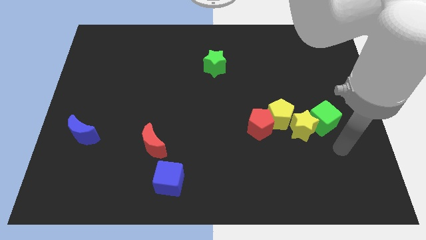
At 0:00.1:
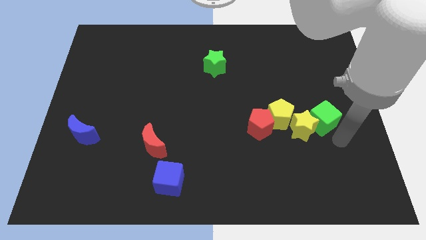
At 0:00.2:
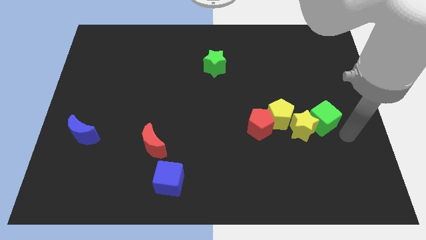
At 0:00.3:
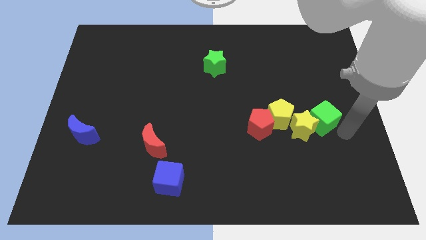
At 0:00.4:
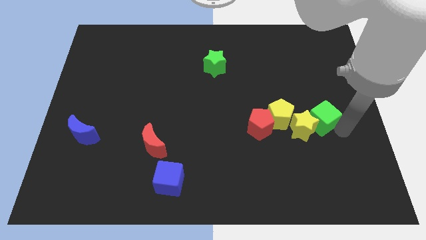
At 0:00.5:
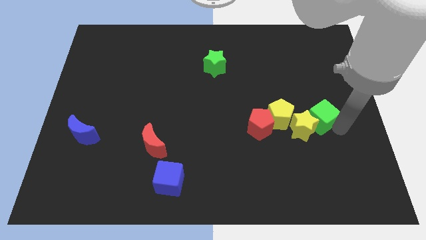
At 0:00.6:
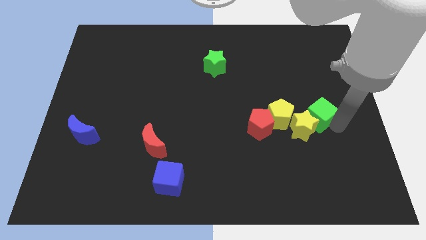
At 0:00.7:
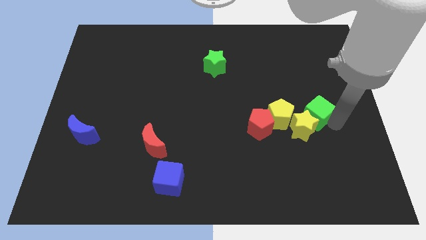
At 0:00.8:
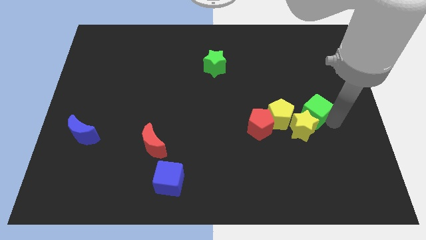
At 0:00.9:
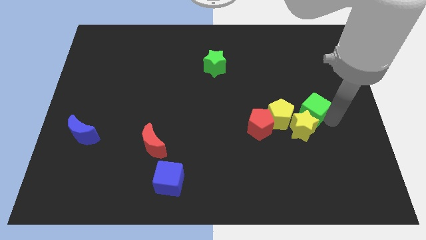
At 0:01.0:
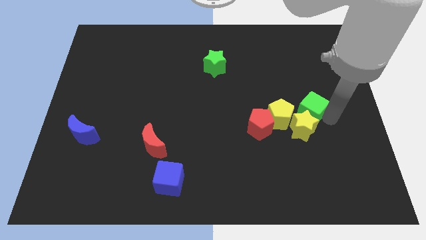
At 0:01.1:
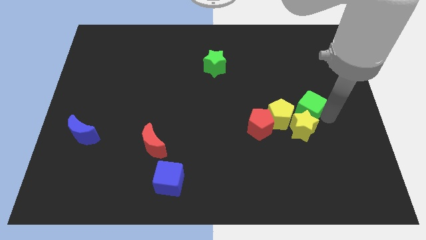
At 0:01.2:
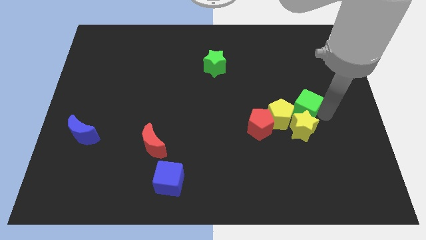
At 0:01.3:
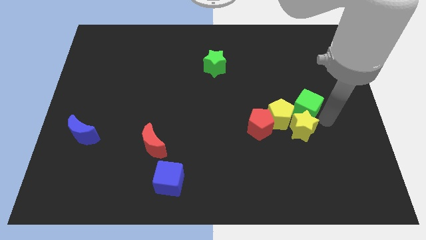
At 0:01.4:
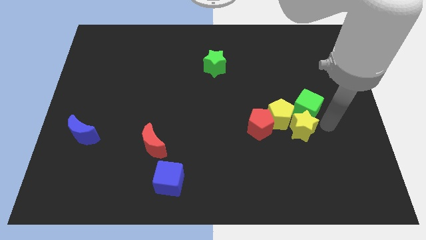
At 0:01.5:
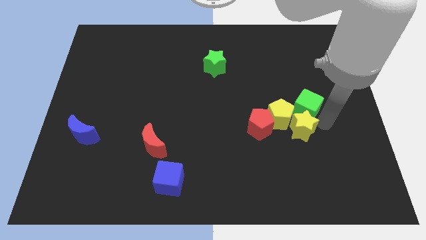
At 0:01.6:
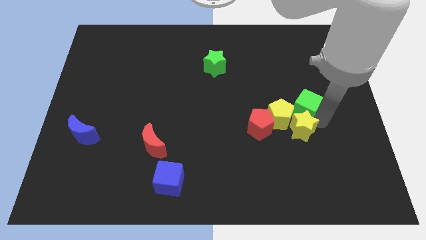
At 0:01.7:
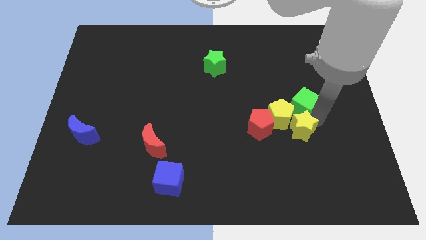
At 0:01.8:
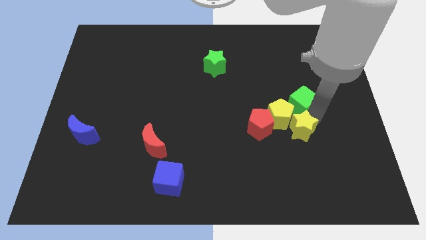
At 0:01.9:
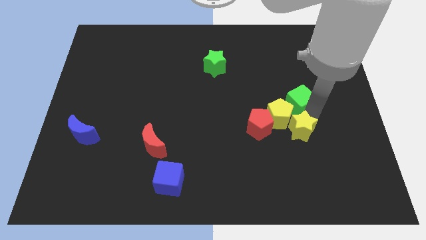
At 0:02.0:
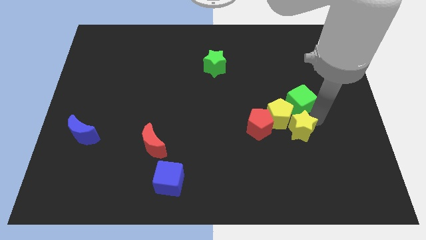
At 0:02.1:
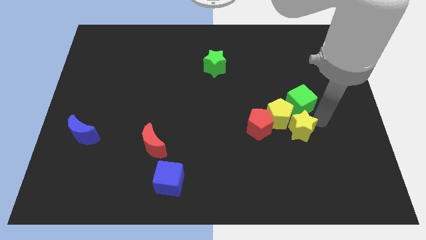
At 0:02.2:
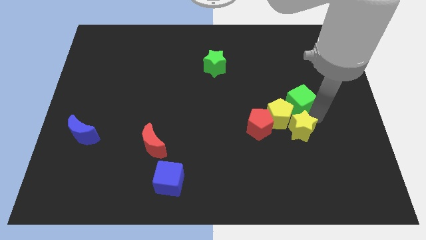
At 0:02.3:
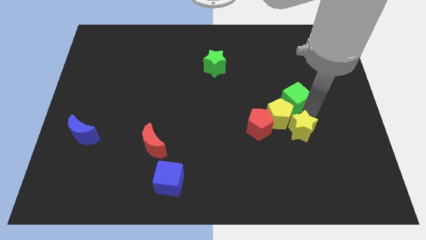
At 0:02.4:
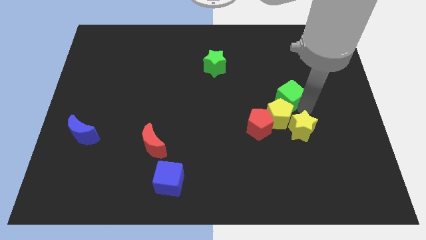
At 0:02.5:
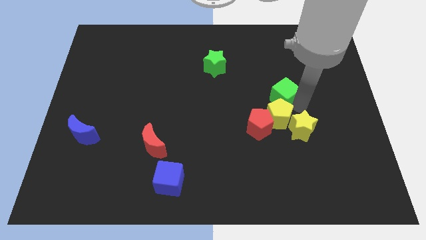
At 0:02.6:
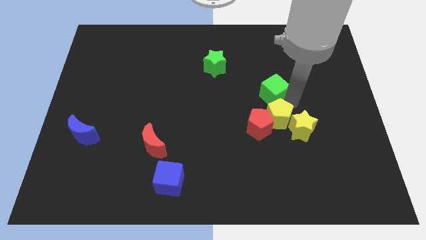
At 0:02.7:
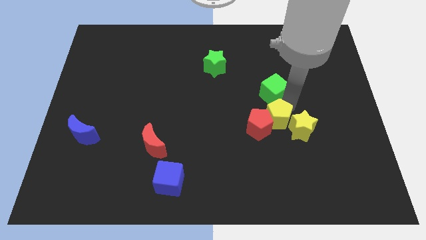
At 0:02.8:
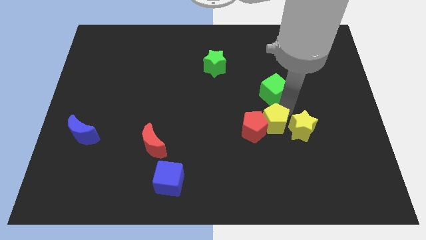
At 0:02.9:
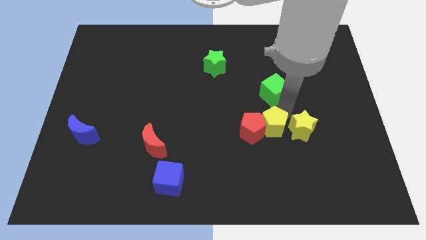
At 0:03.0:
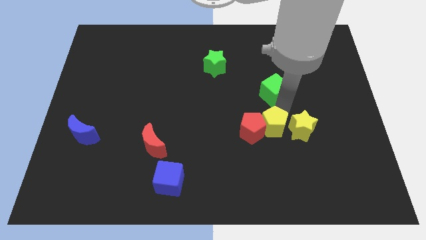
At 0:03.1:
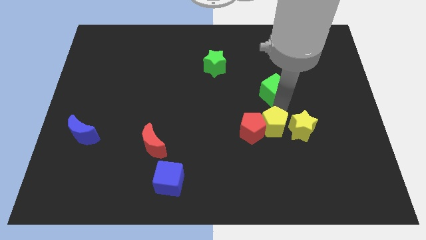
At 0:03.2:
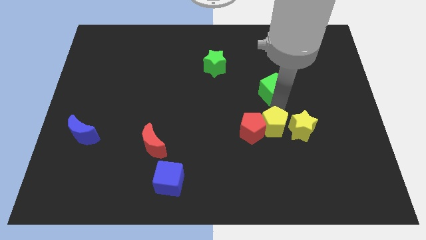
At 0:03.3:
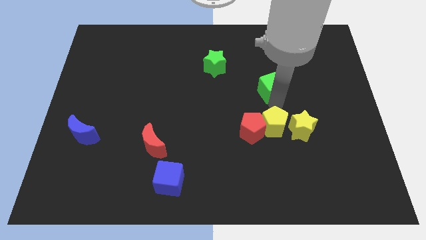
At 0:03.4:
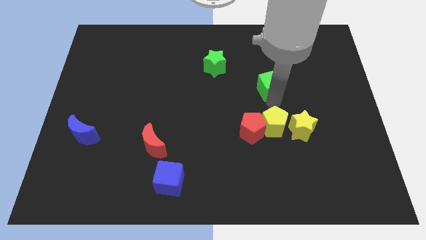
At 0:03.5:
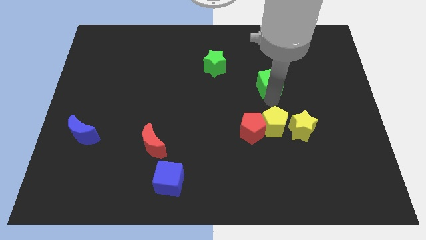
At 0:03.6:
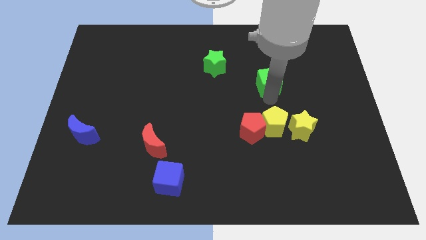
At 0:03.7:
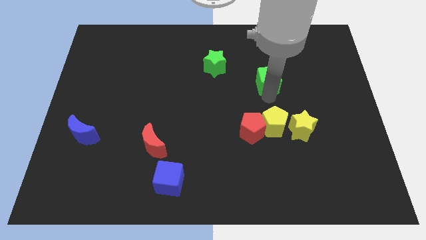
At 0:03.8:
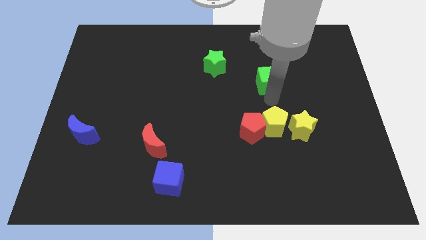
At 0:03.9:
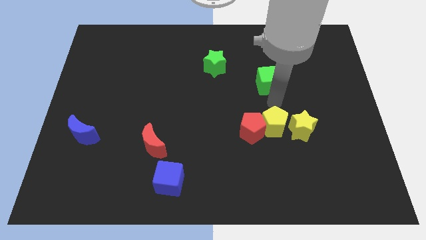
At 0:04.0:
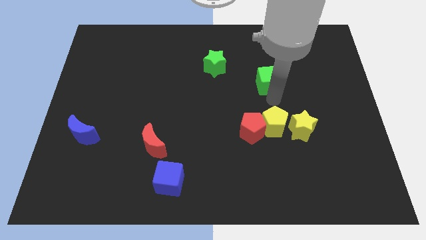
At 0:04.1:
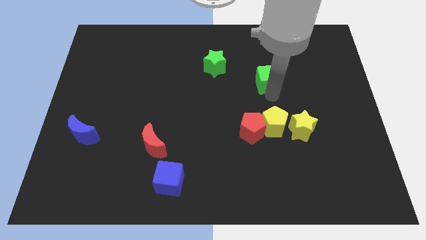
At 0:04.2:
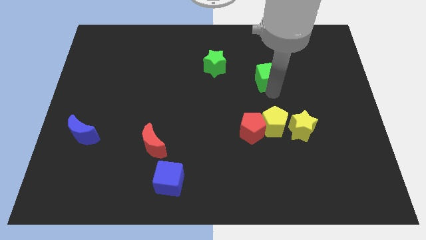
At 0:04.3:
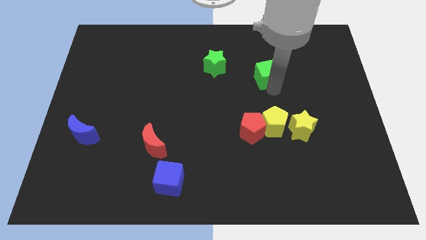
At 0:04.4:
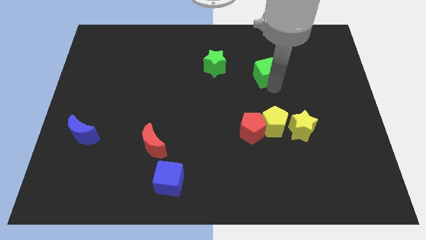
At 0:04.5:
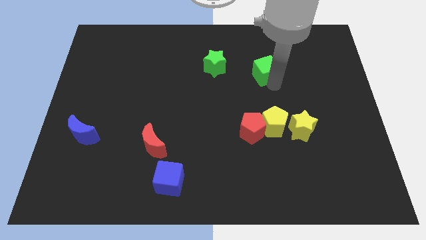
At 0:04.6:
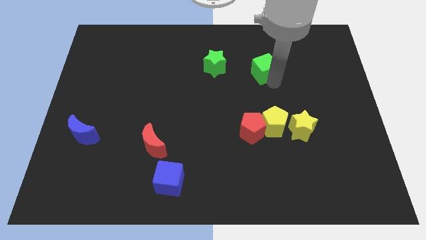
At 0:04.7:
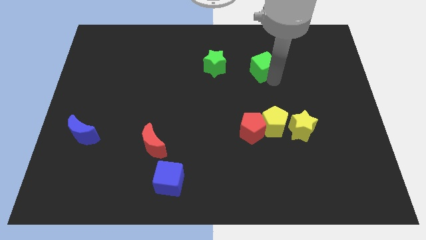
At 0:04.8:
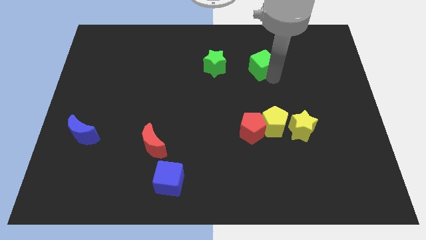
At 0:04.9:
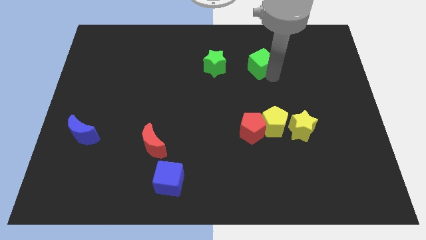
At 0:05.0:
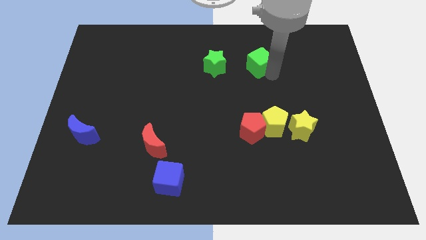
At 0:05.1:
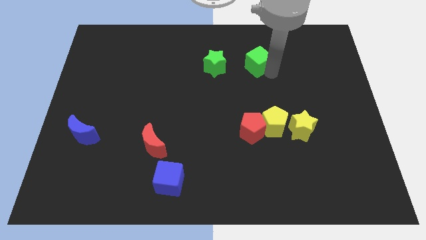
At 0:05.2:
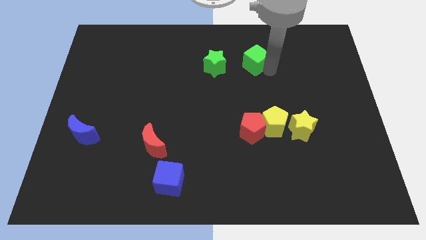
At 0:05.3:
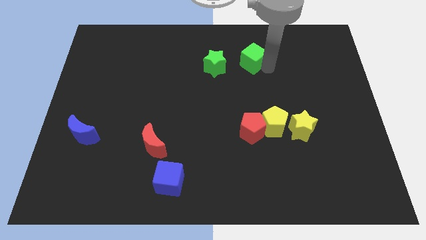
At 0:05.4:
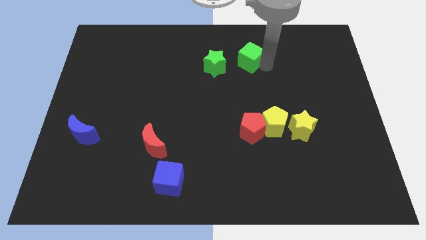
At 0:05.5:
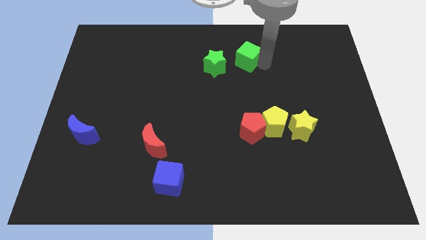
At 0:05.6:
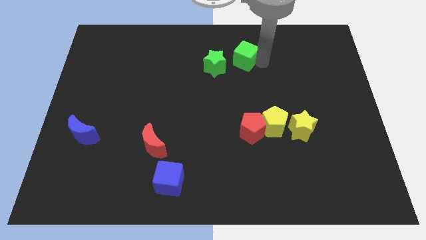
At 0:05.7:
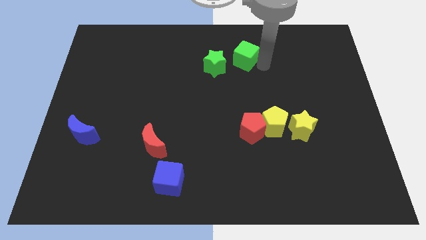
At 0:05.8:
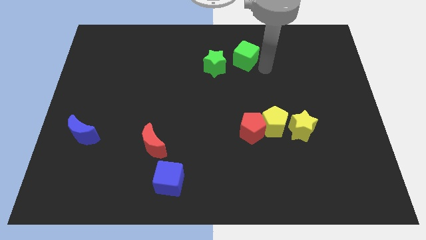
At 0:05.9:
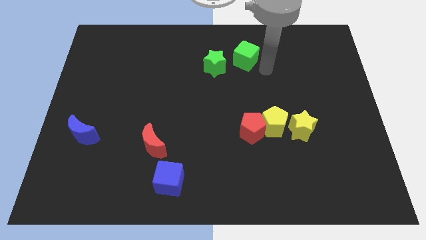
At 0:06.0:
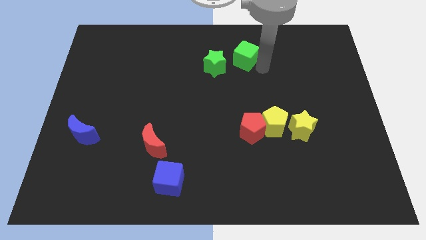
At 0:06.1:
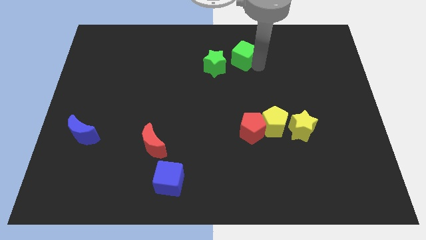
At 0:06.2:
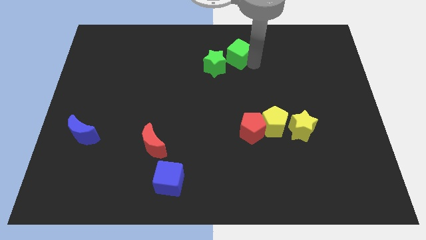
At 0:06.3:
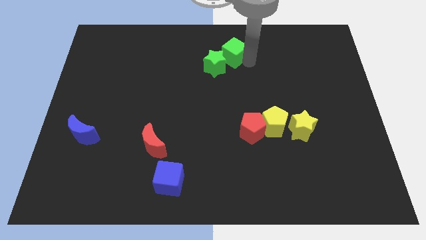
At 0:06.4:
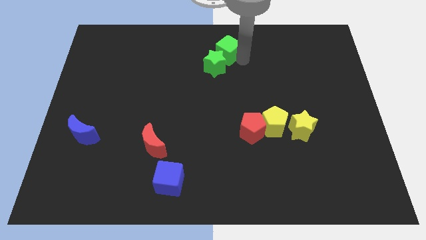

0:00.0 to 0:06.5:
put the green cube to the towards your base
